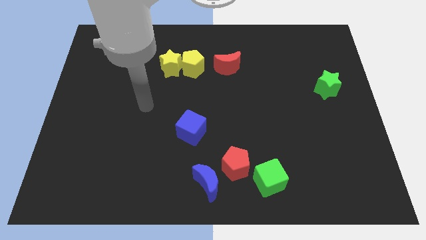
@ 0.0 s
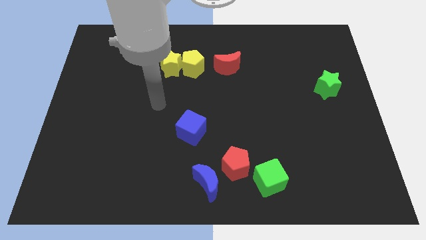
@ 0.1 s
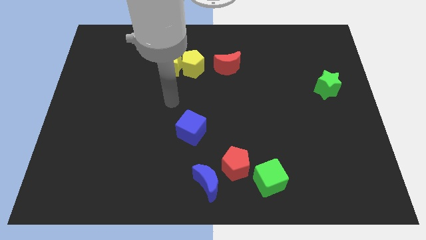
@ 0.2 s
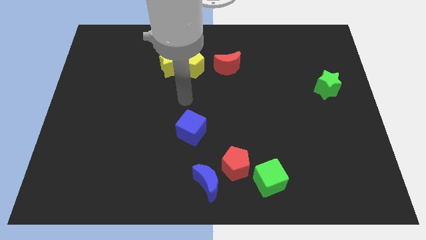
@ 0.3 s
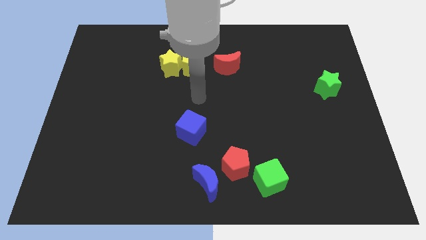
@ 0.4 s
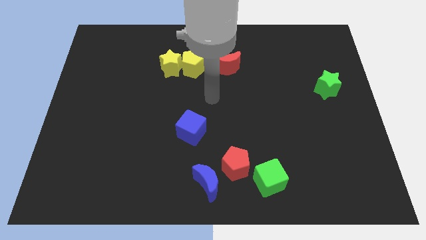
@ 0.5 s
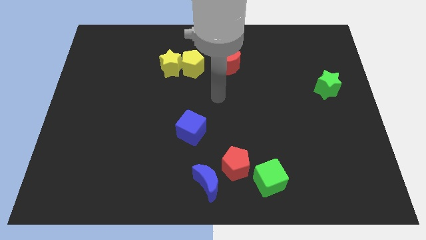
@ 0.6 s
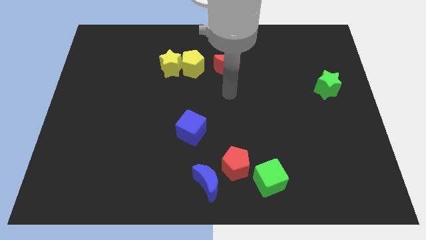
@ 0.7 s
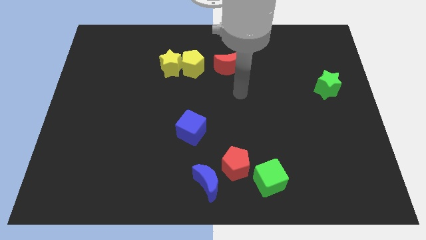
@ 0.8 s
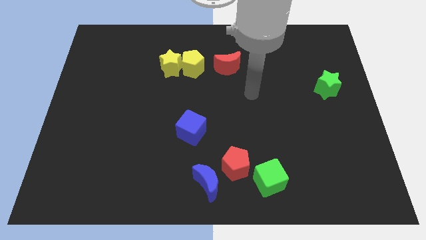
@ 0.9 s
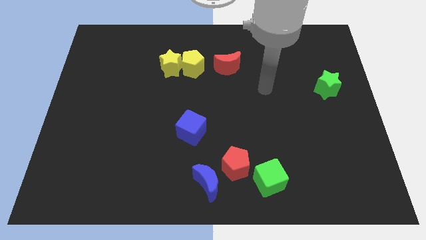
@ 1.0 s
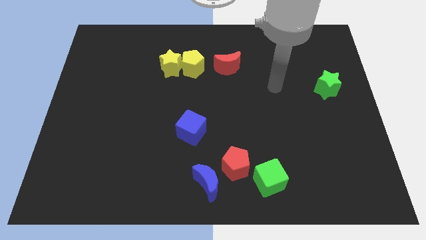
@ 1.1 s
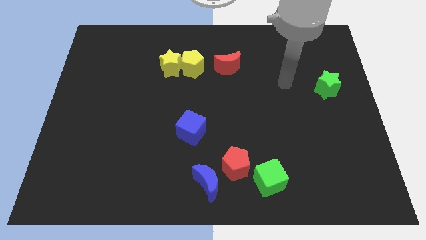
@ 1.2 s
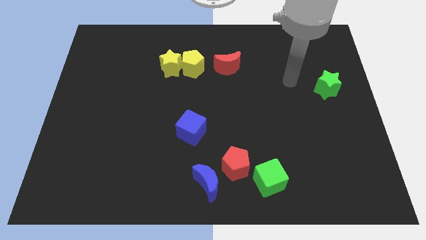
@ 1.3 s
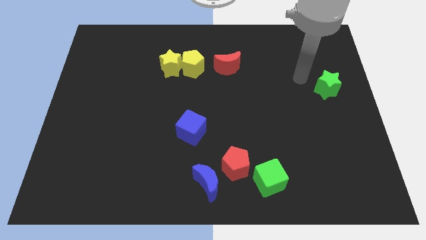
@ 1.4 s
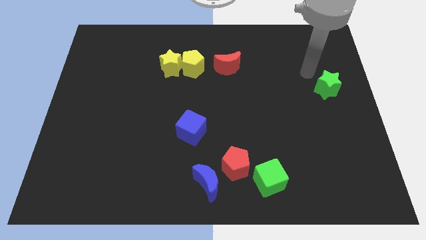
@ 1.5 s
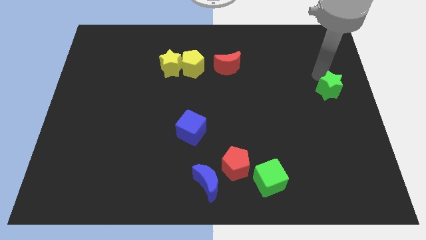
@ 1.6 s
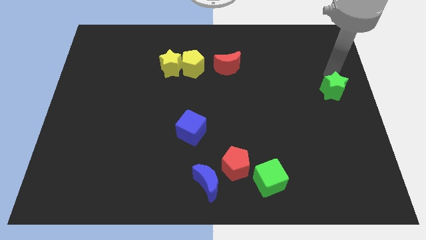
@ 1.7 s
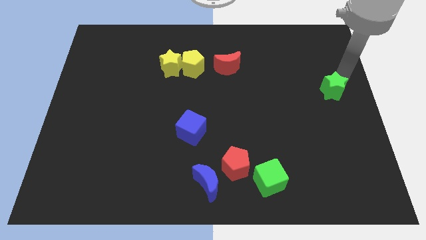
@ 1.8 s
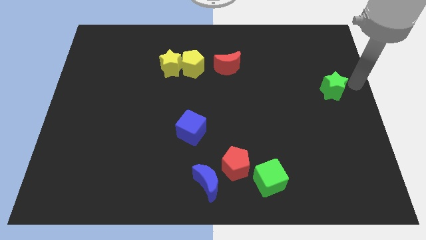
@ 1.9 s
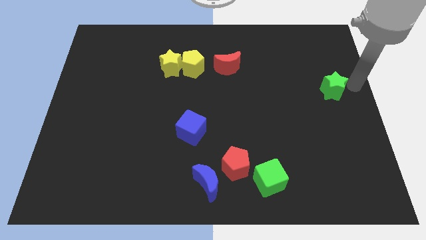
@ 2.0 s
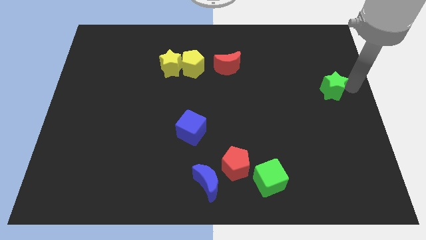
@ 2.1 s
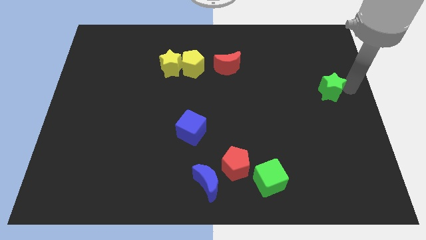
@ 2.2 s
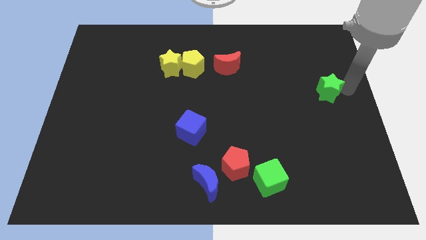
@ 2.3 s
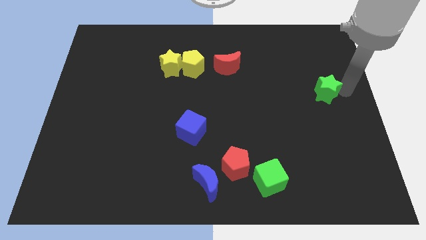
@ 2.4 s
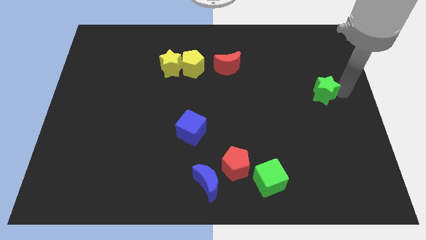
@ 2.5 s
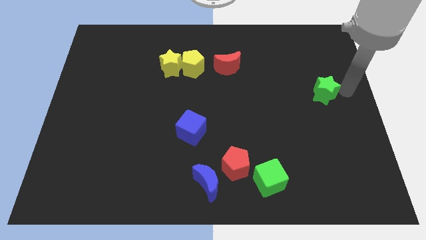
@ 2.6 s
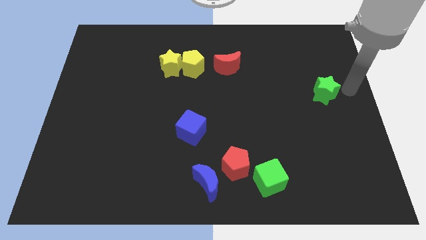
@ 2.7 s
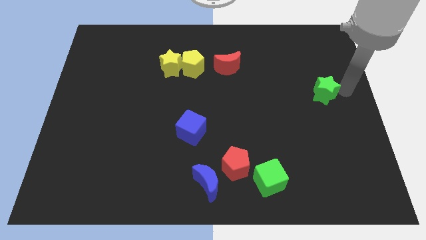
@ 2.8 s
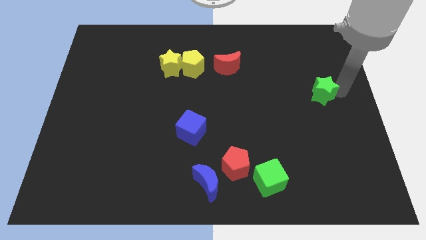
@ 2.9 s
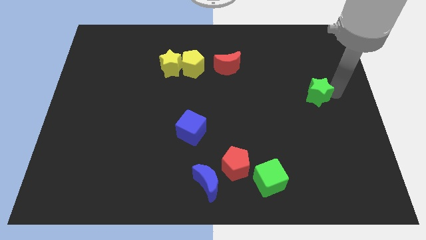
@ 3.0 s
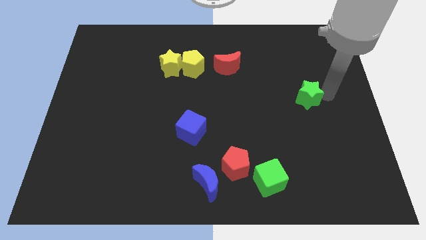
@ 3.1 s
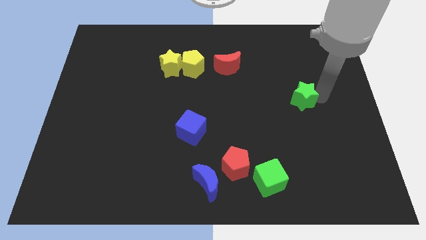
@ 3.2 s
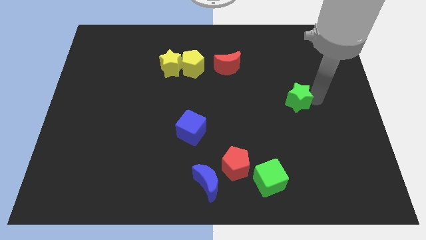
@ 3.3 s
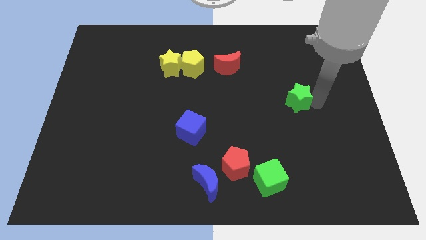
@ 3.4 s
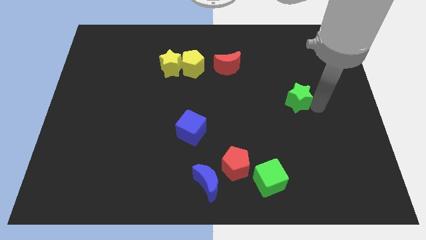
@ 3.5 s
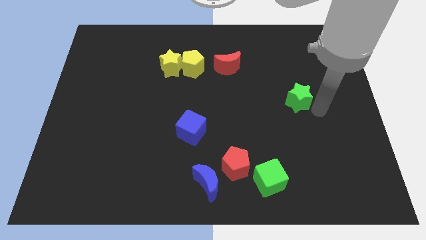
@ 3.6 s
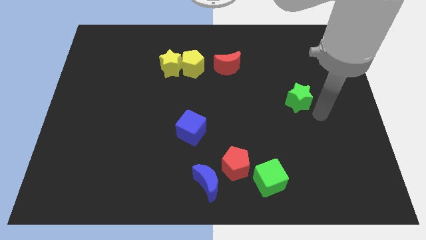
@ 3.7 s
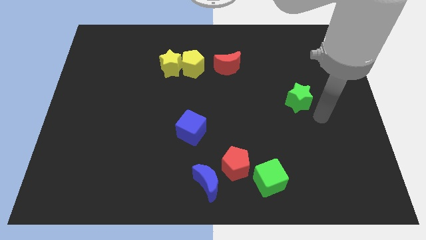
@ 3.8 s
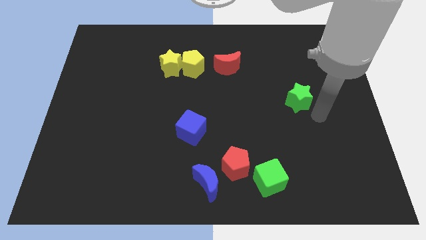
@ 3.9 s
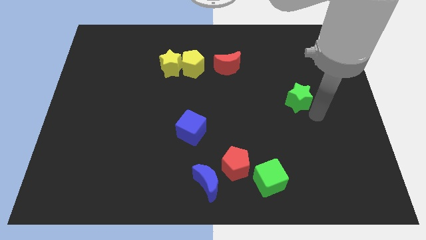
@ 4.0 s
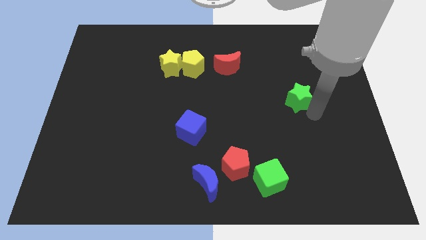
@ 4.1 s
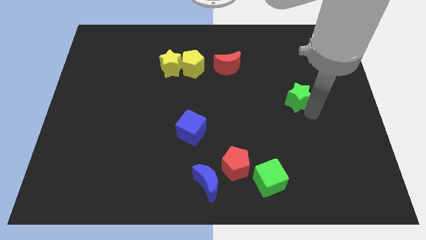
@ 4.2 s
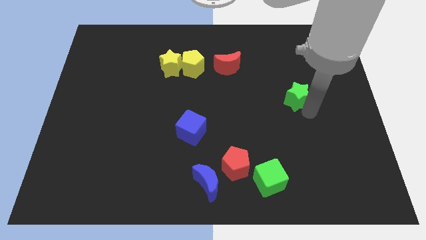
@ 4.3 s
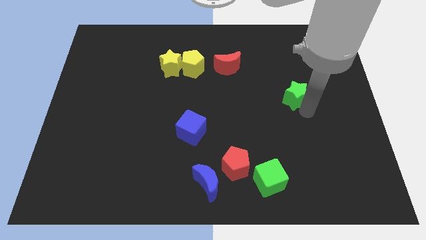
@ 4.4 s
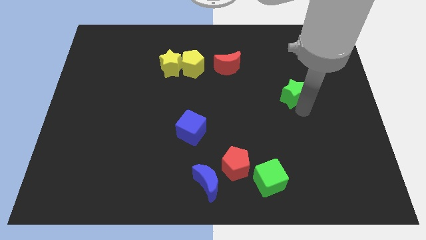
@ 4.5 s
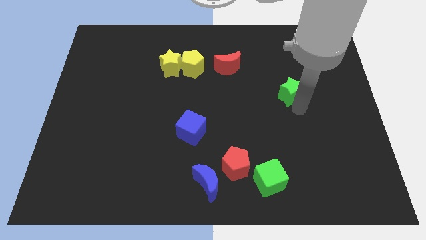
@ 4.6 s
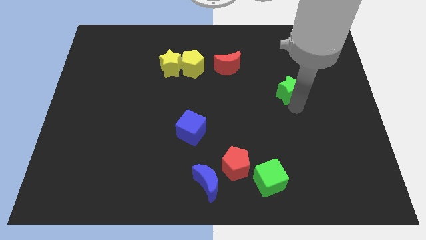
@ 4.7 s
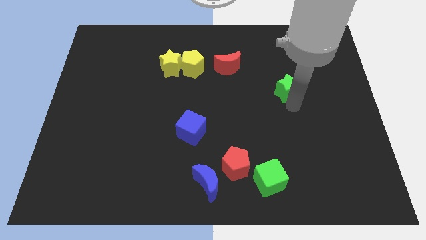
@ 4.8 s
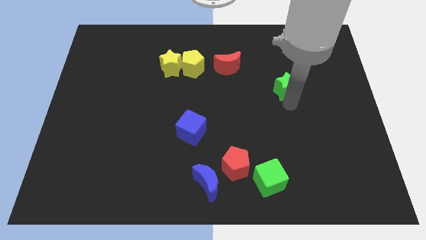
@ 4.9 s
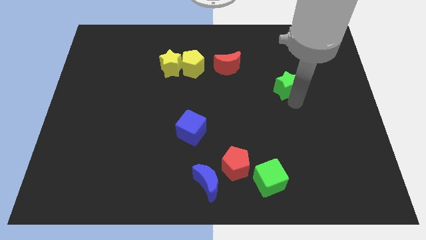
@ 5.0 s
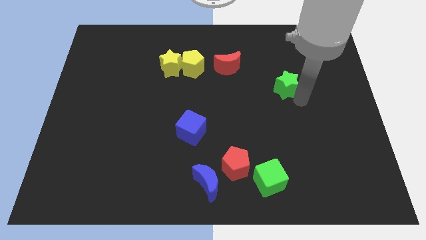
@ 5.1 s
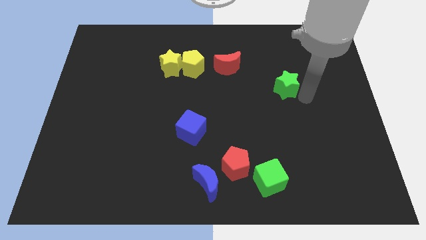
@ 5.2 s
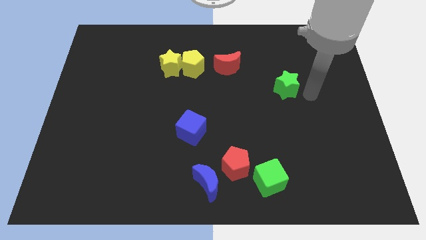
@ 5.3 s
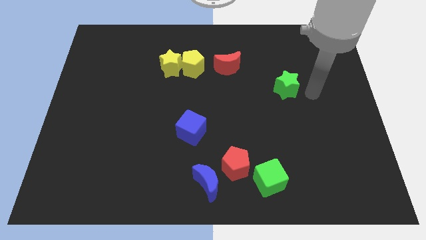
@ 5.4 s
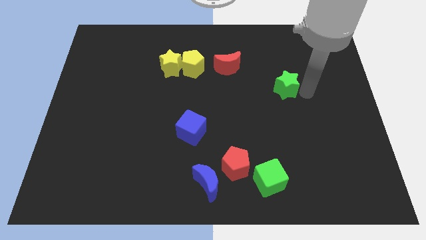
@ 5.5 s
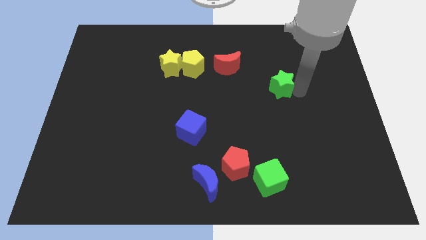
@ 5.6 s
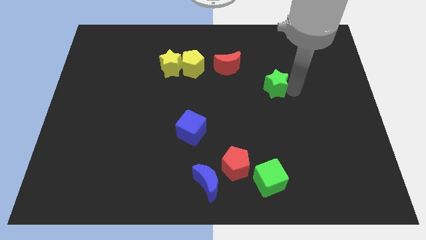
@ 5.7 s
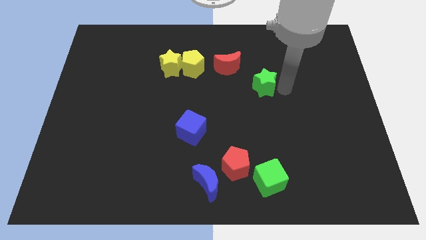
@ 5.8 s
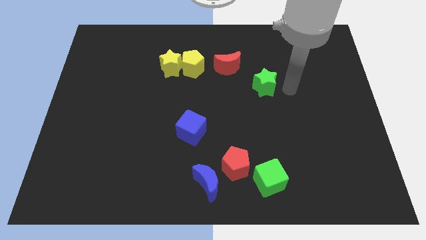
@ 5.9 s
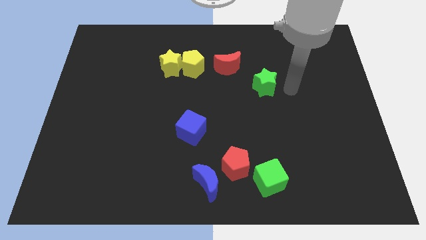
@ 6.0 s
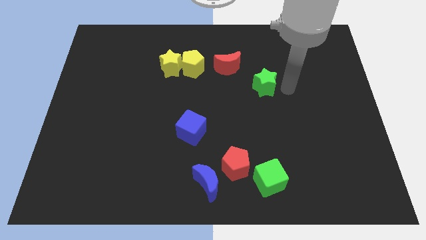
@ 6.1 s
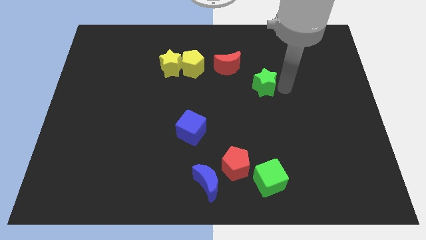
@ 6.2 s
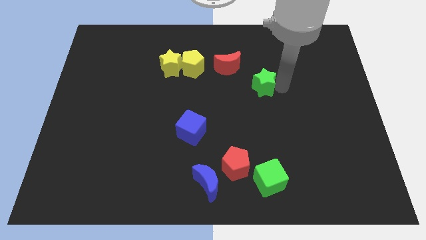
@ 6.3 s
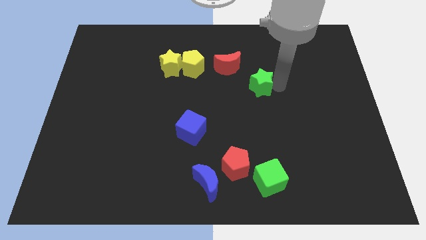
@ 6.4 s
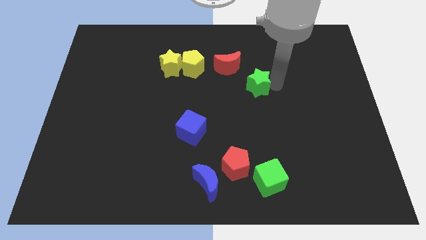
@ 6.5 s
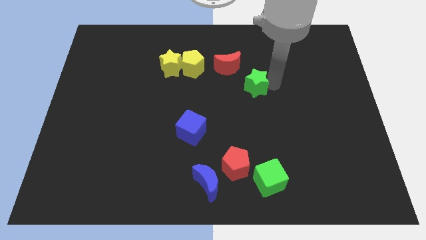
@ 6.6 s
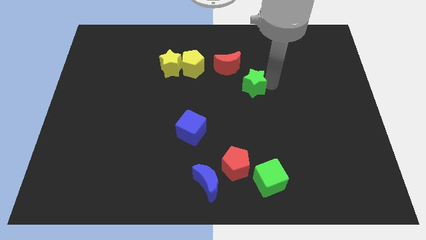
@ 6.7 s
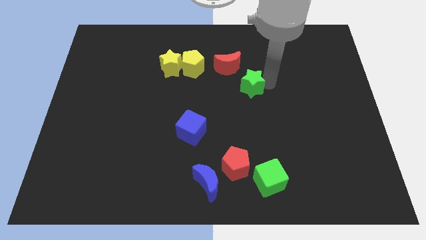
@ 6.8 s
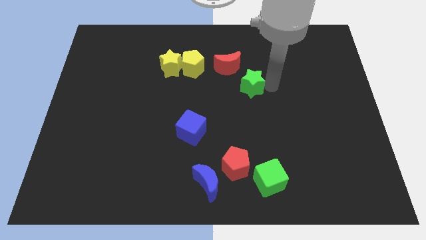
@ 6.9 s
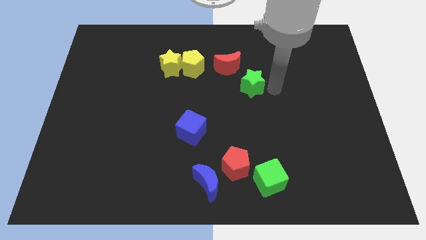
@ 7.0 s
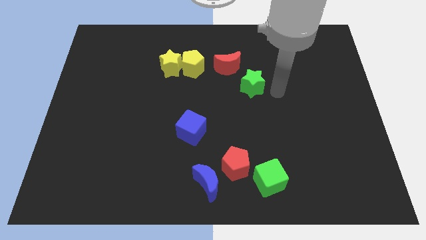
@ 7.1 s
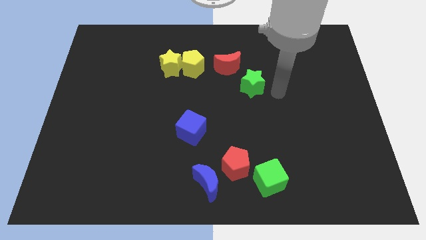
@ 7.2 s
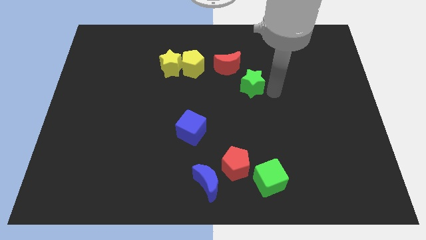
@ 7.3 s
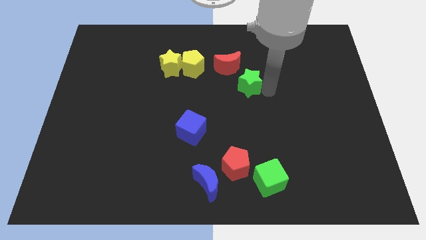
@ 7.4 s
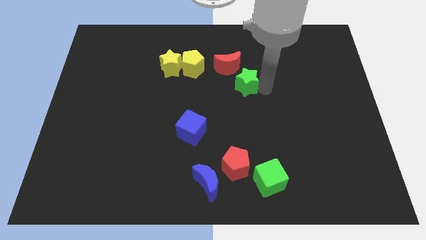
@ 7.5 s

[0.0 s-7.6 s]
move the green star left

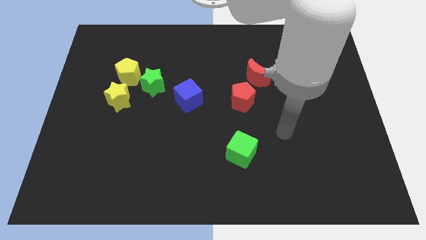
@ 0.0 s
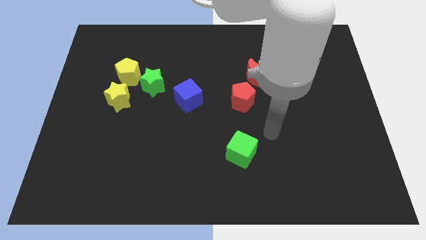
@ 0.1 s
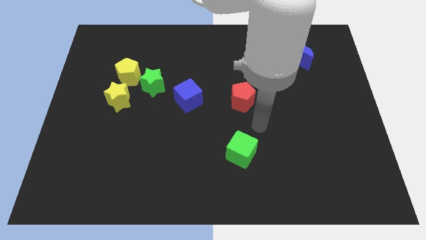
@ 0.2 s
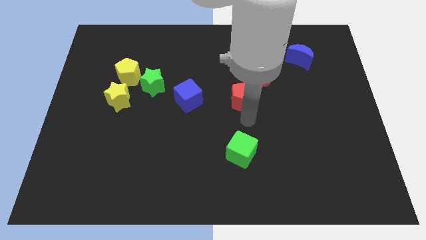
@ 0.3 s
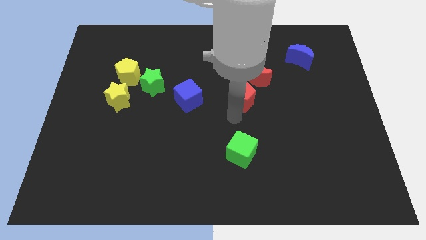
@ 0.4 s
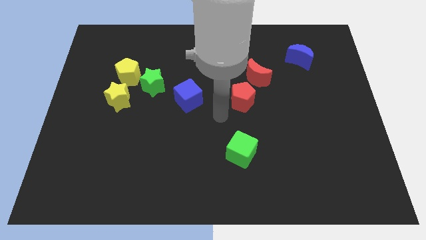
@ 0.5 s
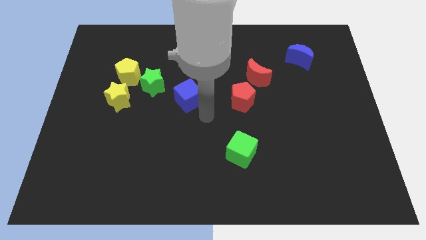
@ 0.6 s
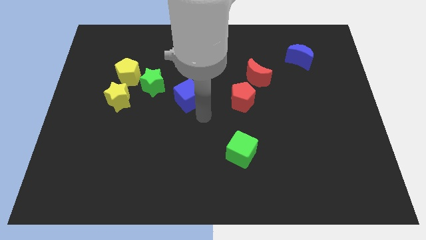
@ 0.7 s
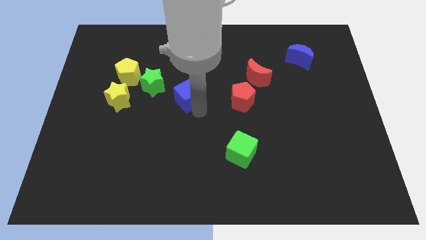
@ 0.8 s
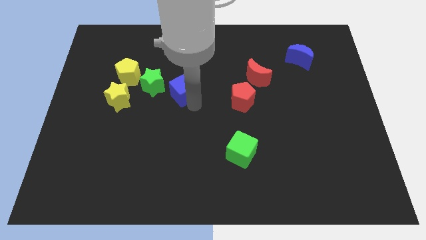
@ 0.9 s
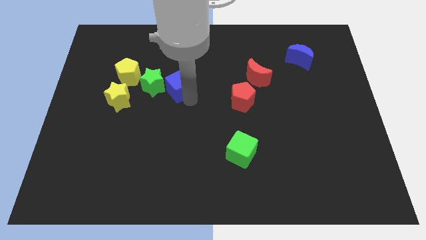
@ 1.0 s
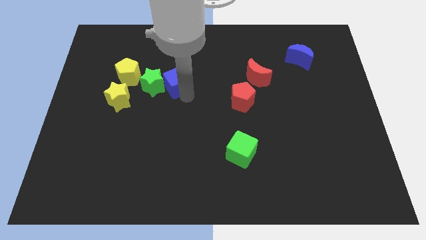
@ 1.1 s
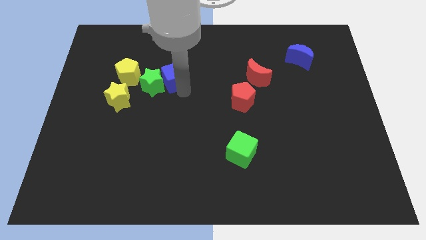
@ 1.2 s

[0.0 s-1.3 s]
move the blue cube up and left a little bit
